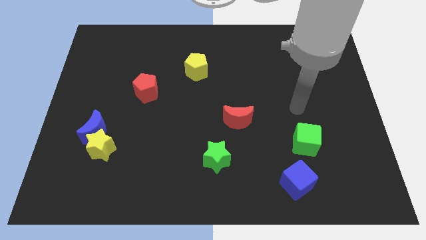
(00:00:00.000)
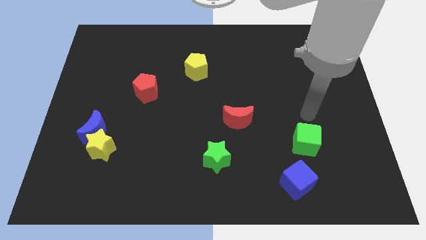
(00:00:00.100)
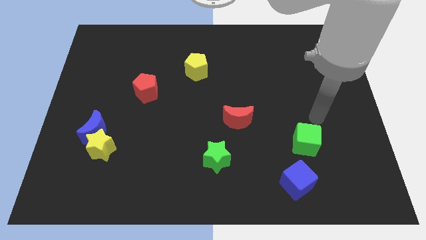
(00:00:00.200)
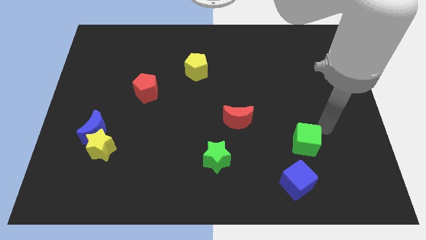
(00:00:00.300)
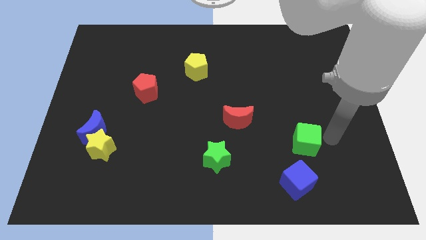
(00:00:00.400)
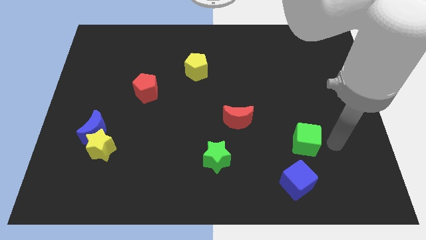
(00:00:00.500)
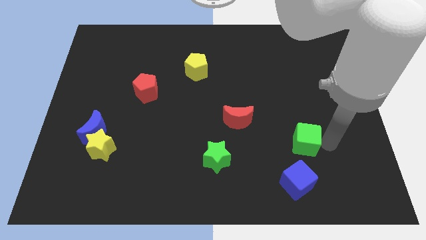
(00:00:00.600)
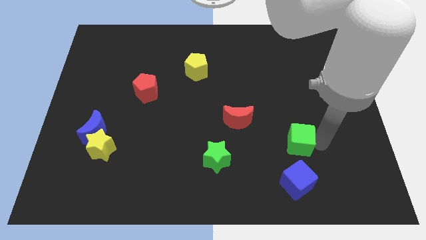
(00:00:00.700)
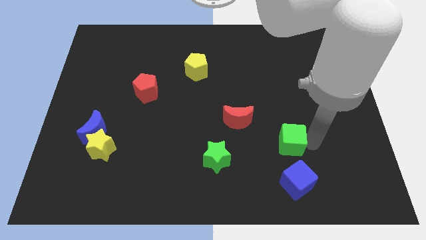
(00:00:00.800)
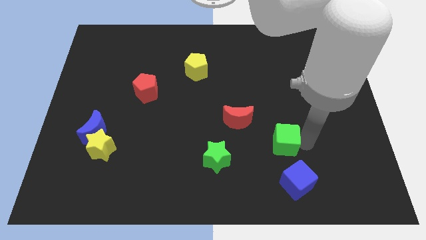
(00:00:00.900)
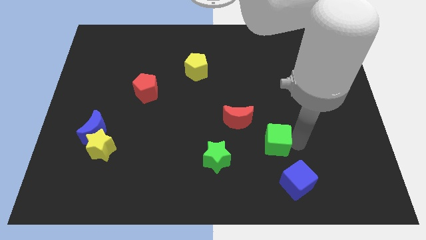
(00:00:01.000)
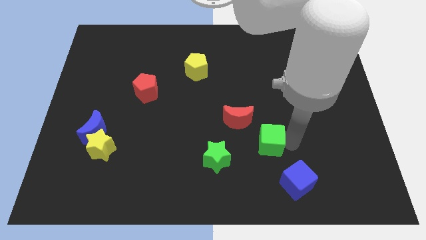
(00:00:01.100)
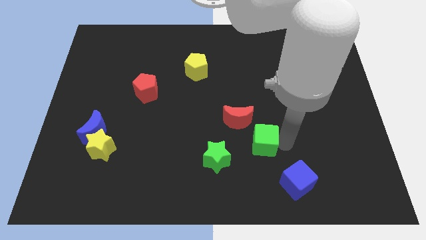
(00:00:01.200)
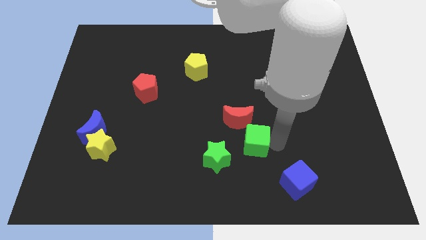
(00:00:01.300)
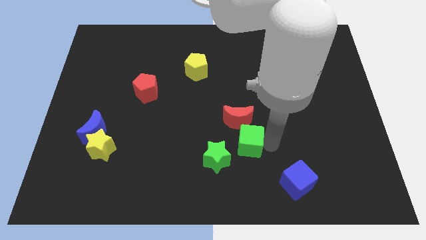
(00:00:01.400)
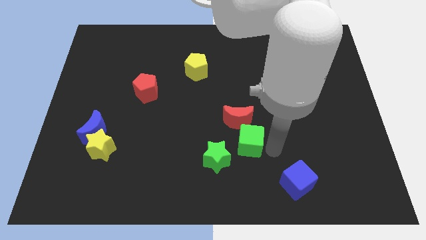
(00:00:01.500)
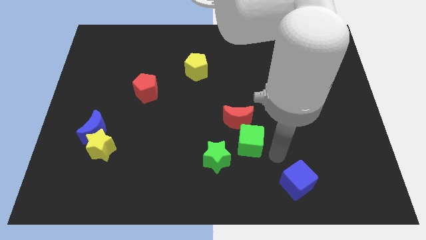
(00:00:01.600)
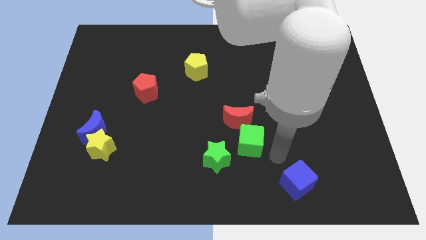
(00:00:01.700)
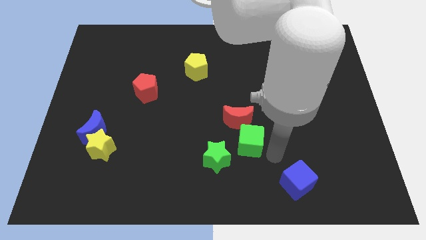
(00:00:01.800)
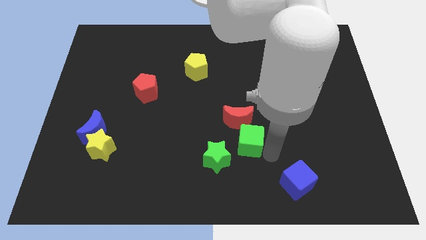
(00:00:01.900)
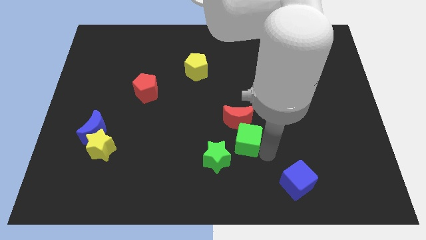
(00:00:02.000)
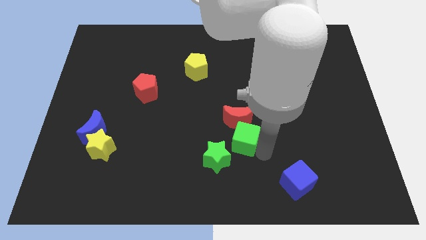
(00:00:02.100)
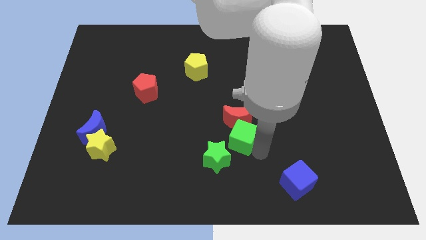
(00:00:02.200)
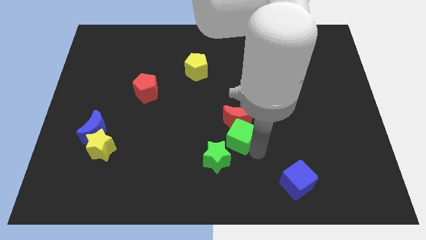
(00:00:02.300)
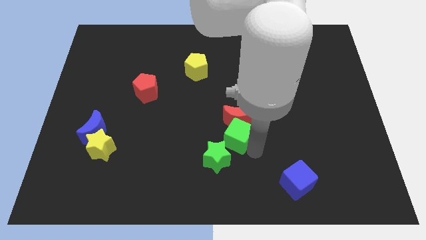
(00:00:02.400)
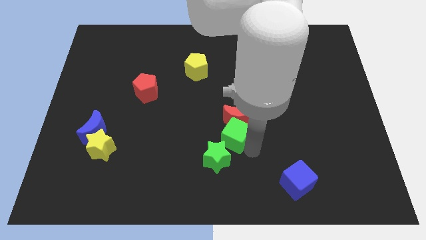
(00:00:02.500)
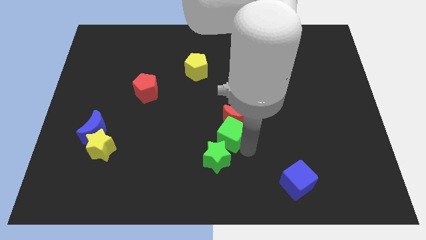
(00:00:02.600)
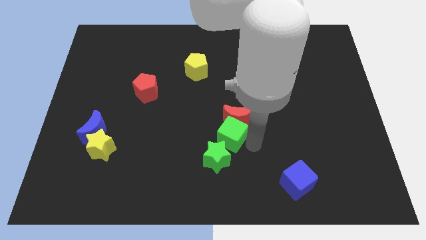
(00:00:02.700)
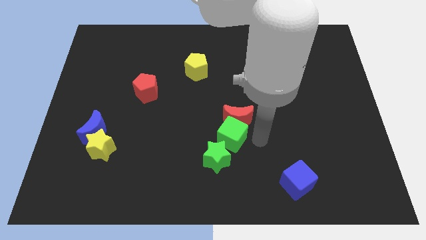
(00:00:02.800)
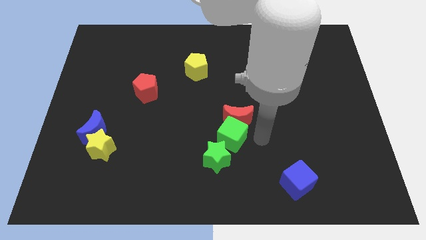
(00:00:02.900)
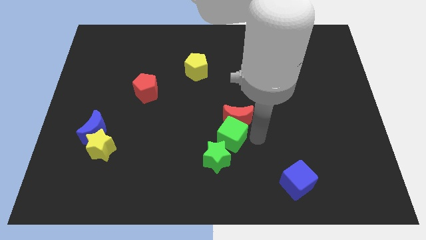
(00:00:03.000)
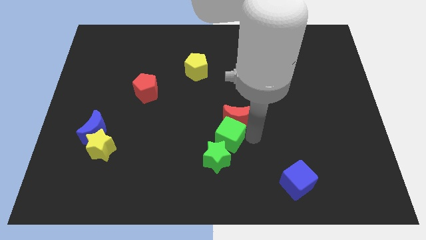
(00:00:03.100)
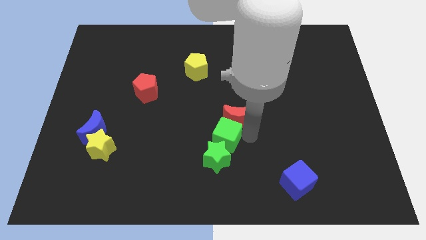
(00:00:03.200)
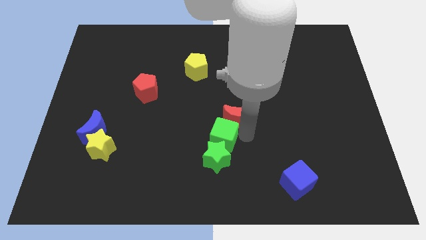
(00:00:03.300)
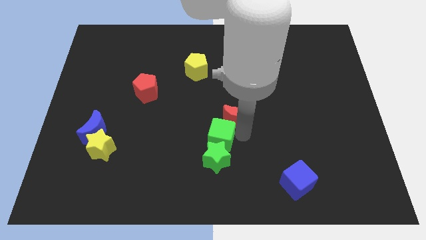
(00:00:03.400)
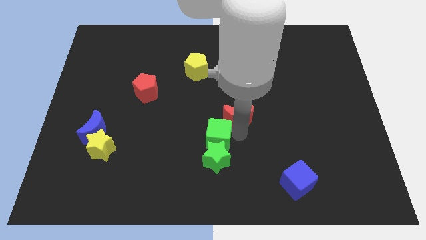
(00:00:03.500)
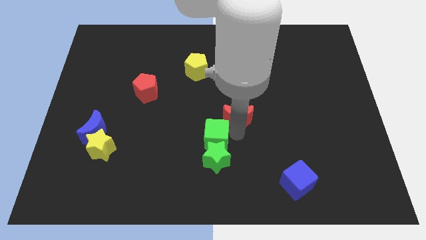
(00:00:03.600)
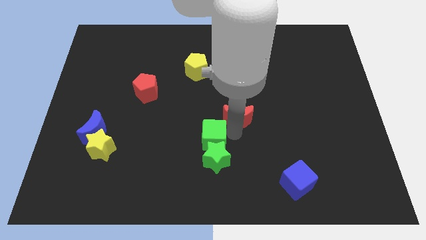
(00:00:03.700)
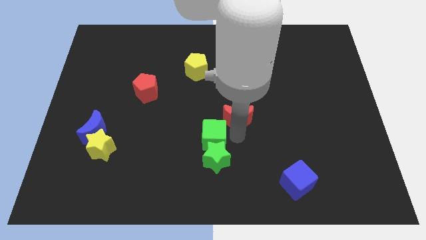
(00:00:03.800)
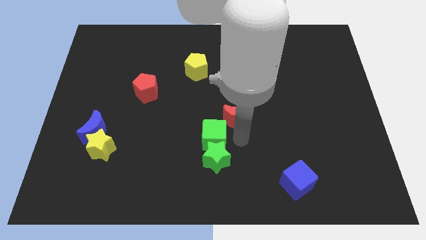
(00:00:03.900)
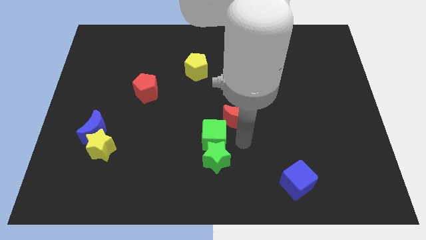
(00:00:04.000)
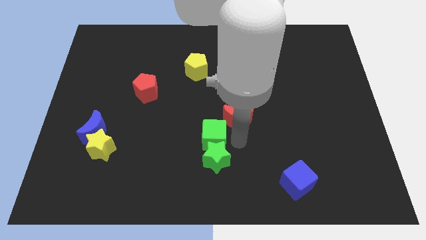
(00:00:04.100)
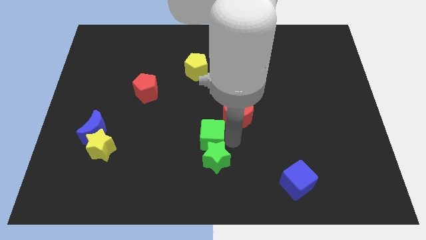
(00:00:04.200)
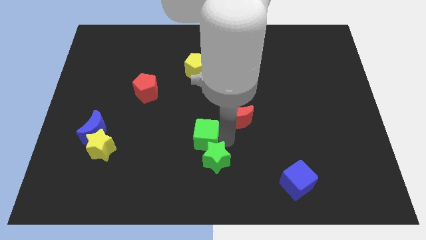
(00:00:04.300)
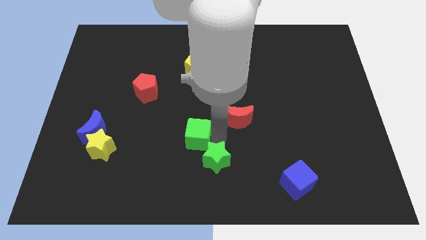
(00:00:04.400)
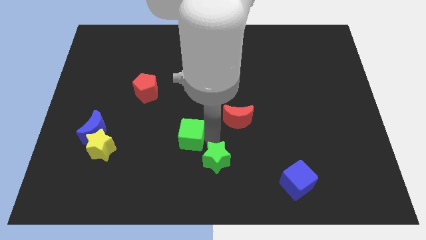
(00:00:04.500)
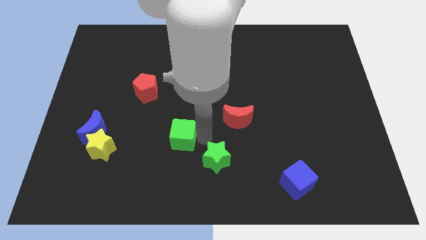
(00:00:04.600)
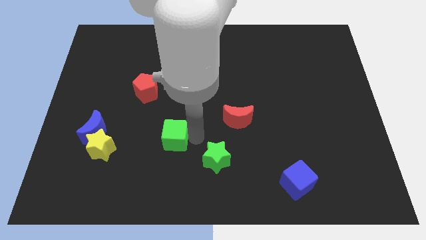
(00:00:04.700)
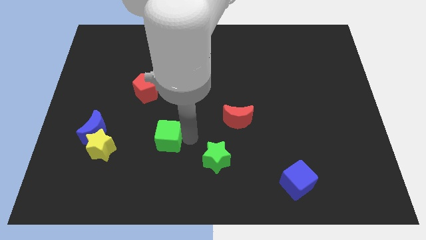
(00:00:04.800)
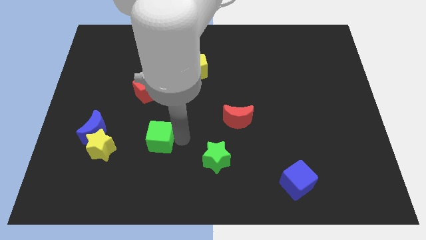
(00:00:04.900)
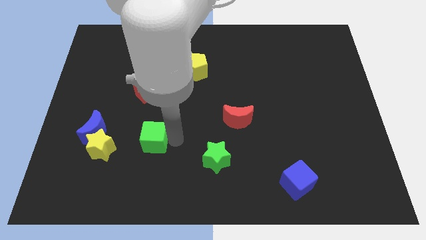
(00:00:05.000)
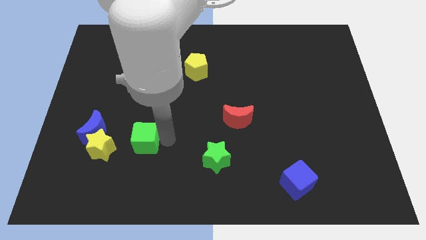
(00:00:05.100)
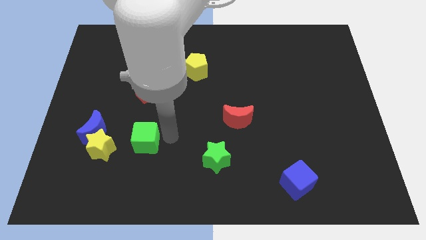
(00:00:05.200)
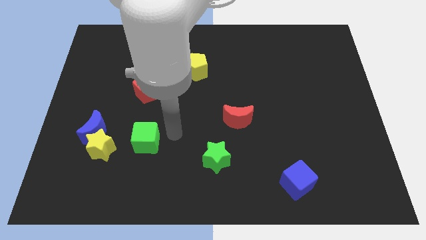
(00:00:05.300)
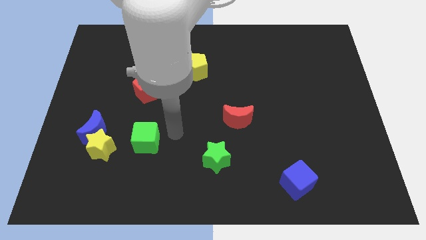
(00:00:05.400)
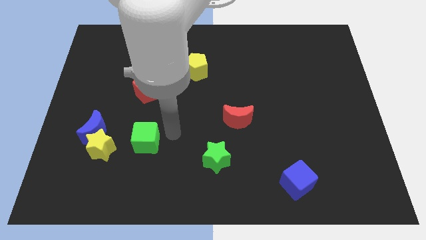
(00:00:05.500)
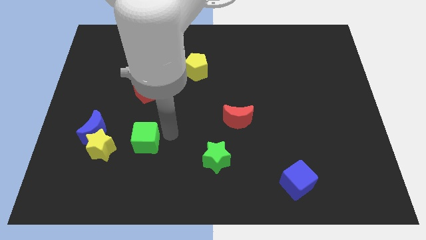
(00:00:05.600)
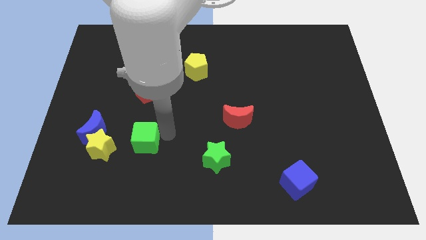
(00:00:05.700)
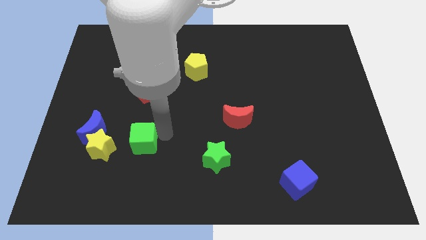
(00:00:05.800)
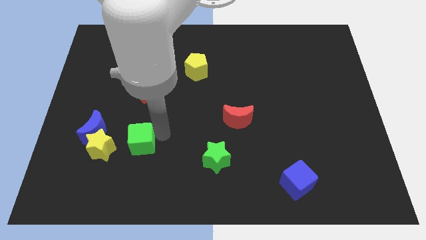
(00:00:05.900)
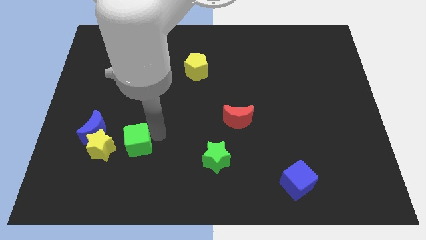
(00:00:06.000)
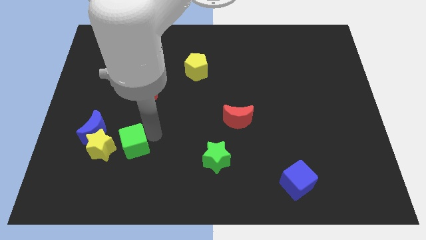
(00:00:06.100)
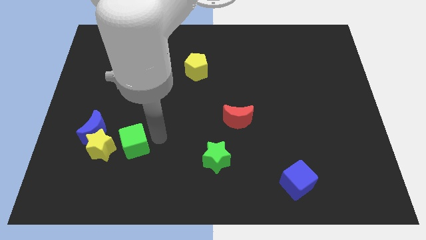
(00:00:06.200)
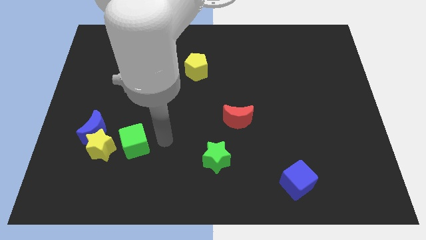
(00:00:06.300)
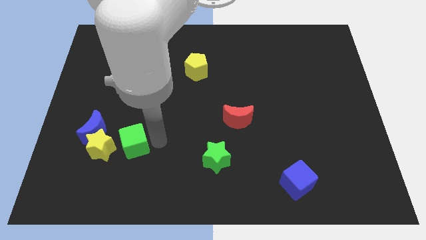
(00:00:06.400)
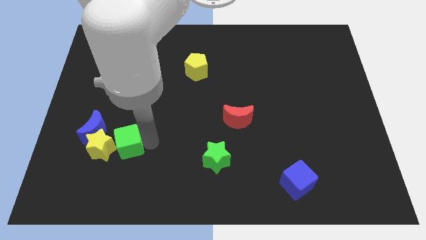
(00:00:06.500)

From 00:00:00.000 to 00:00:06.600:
move the green cube towards the yellow star

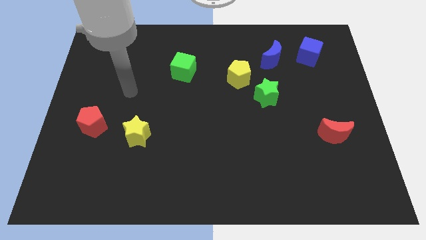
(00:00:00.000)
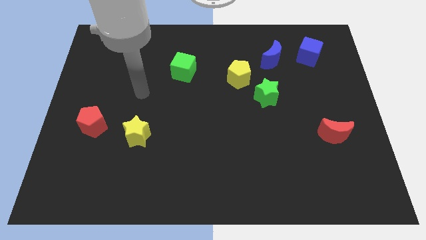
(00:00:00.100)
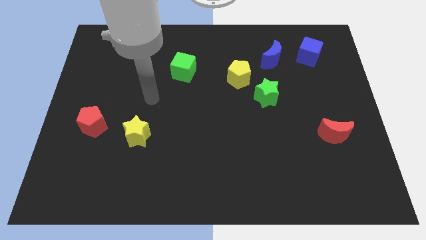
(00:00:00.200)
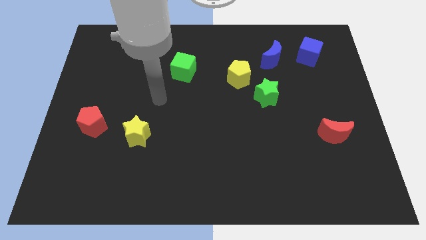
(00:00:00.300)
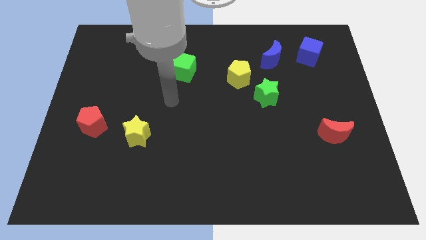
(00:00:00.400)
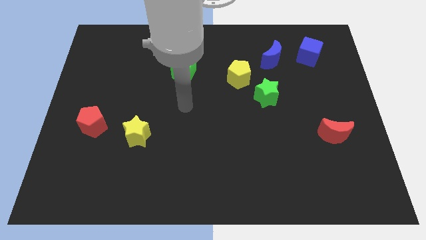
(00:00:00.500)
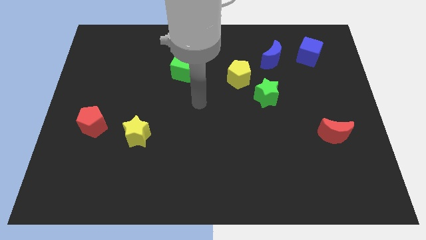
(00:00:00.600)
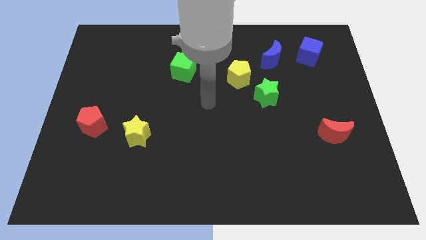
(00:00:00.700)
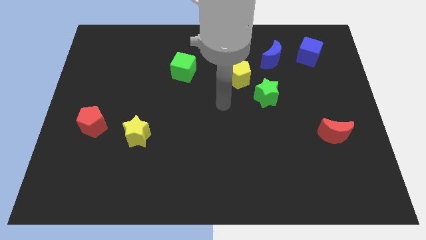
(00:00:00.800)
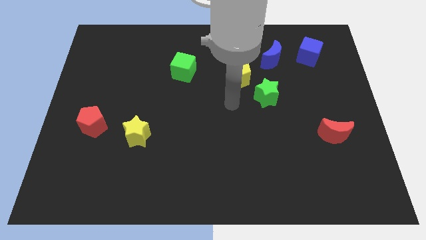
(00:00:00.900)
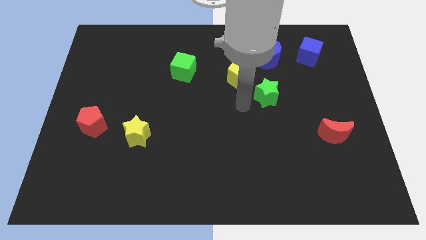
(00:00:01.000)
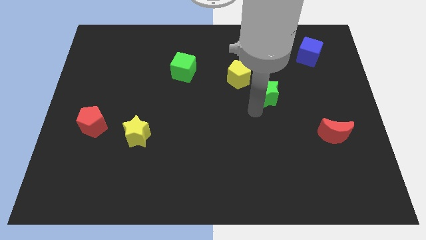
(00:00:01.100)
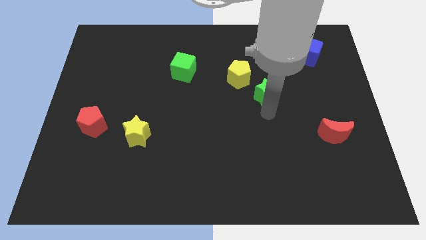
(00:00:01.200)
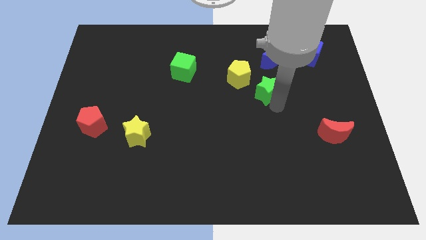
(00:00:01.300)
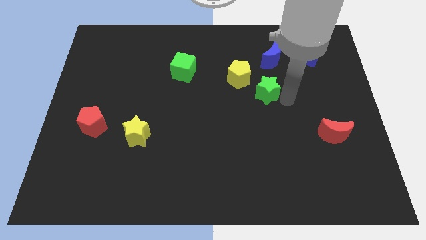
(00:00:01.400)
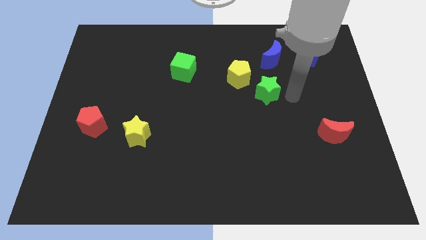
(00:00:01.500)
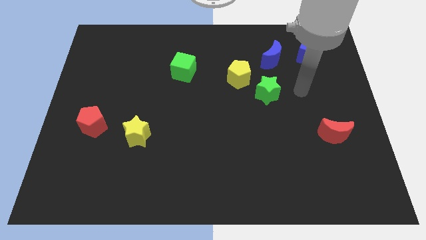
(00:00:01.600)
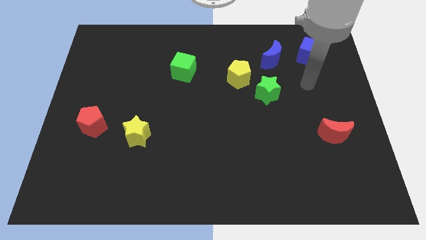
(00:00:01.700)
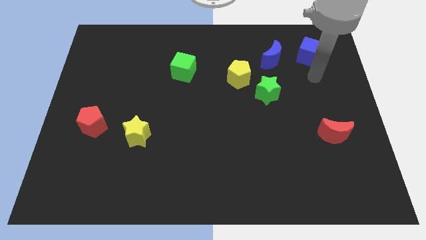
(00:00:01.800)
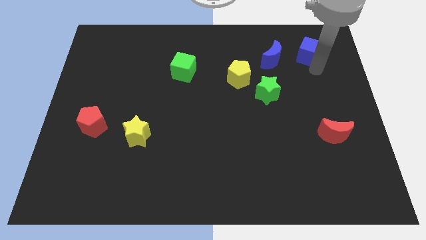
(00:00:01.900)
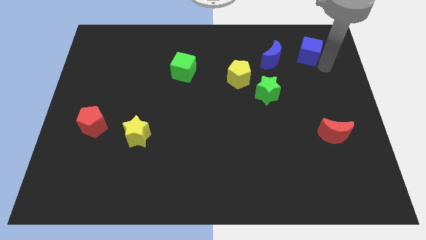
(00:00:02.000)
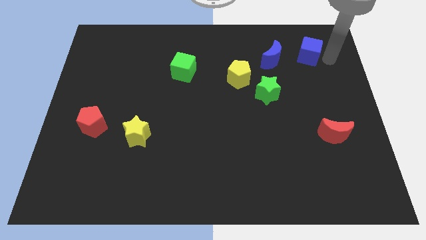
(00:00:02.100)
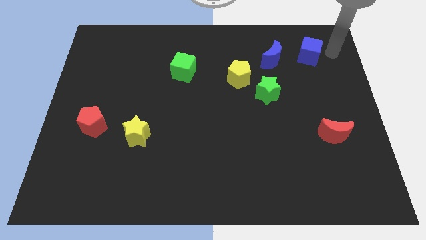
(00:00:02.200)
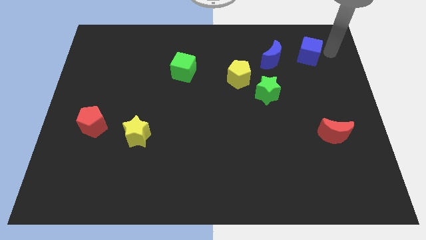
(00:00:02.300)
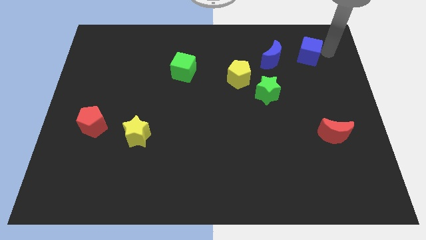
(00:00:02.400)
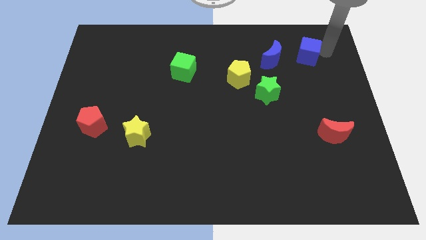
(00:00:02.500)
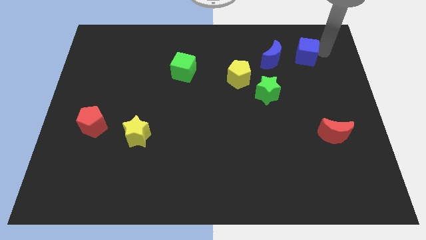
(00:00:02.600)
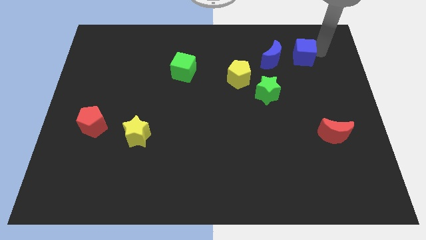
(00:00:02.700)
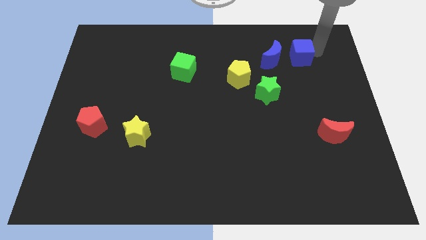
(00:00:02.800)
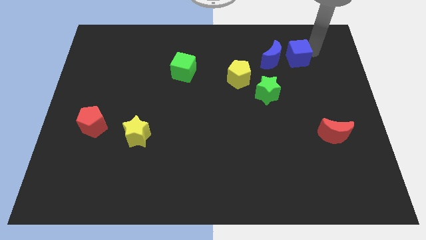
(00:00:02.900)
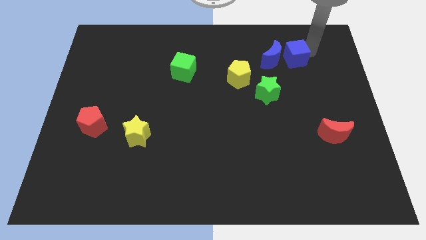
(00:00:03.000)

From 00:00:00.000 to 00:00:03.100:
move the blue cube towards the blue moon
